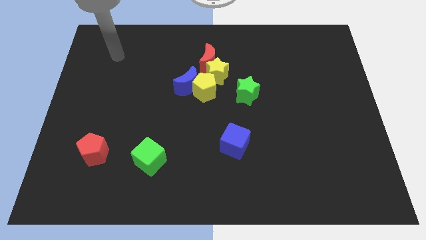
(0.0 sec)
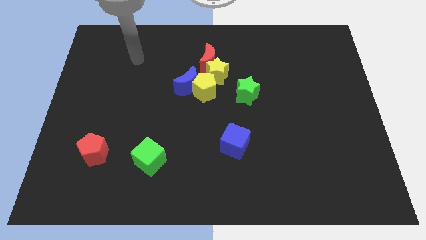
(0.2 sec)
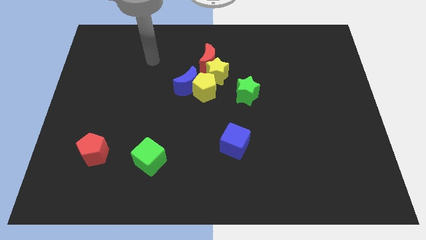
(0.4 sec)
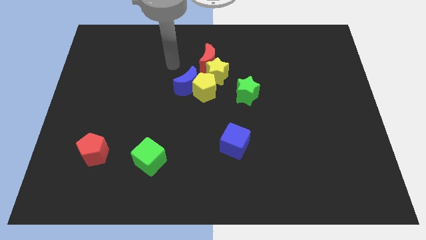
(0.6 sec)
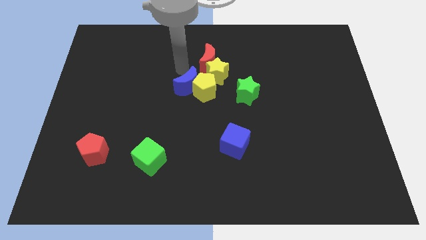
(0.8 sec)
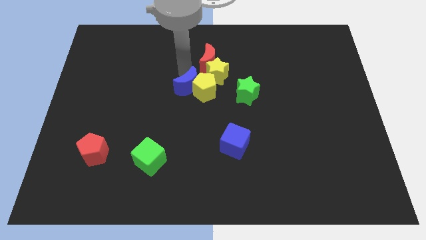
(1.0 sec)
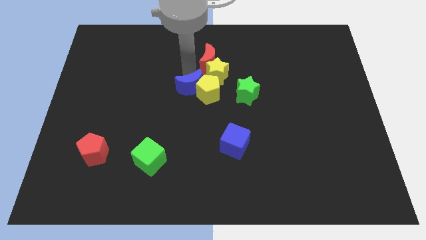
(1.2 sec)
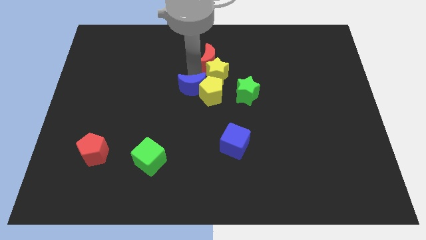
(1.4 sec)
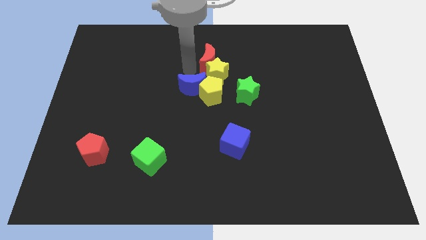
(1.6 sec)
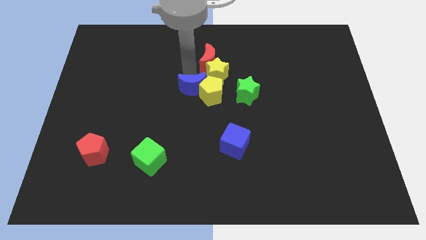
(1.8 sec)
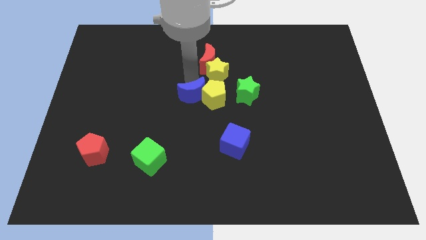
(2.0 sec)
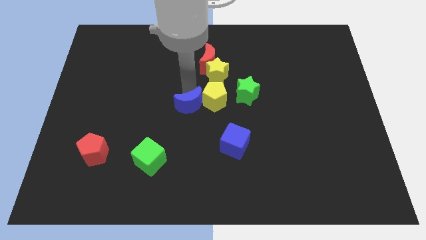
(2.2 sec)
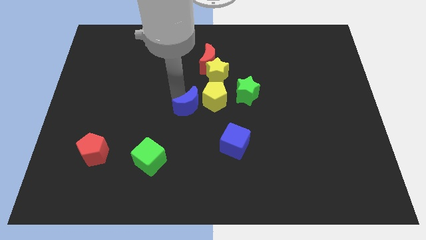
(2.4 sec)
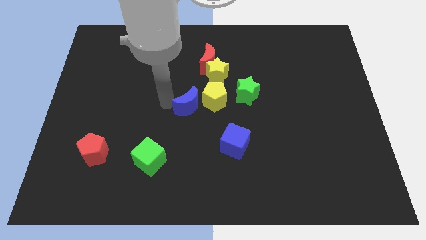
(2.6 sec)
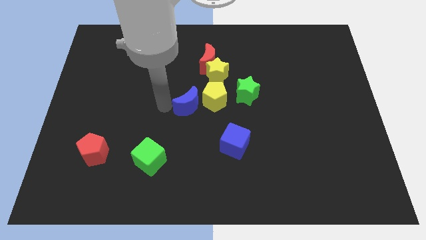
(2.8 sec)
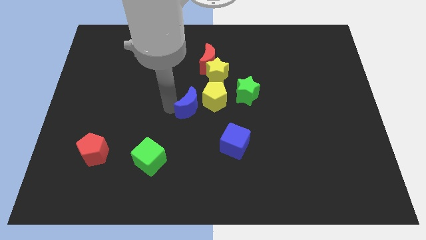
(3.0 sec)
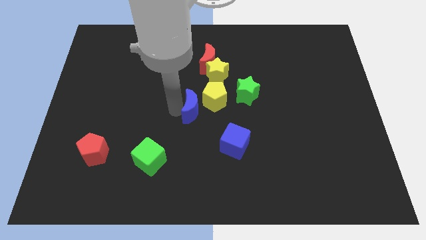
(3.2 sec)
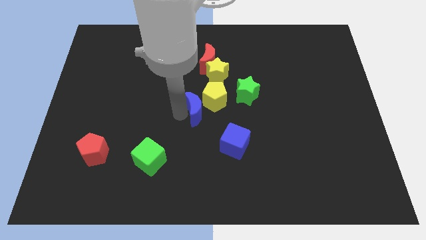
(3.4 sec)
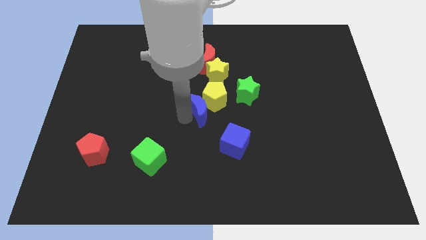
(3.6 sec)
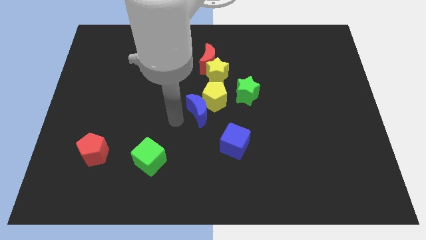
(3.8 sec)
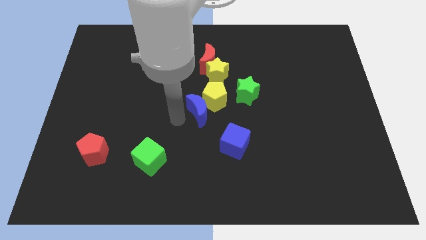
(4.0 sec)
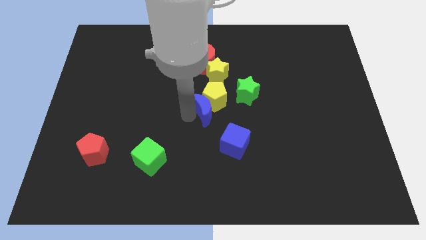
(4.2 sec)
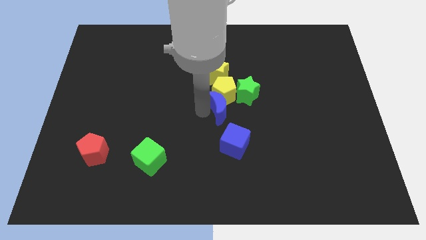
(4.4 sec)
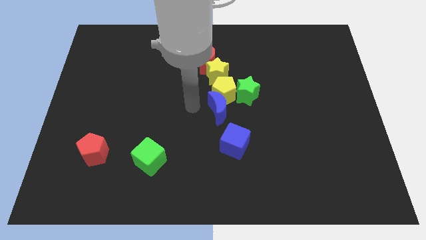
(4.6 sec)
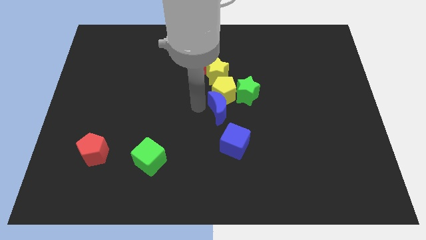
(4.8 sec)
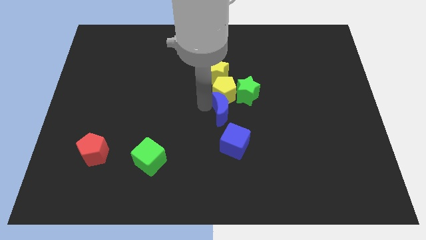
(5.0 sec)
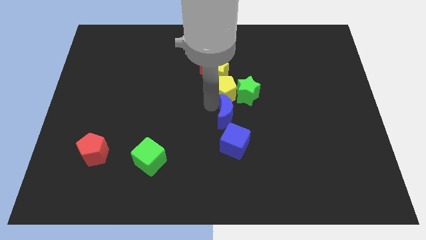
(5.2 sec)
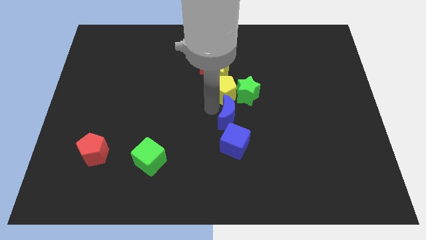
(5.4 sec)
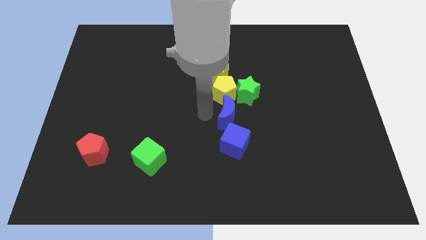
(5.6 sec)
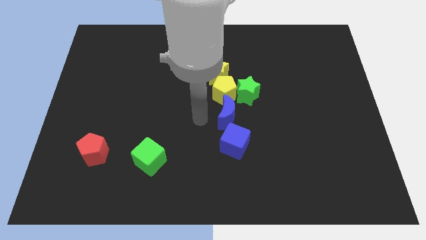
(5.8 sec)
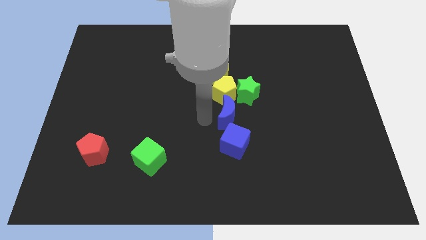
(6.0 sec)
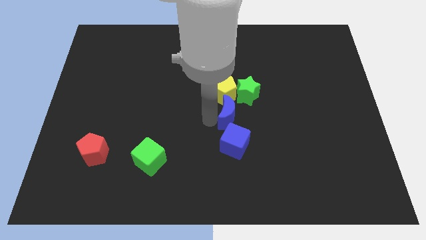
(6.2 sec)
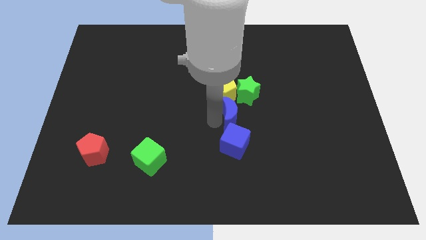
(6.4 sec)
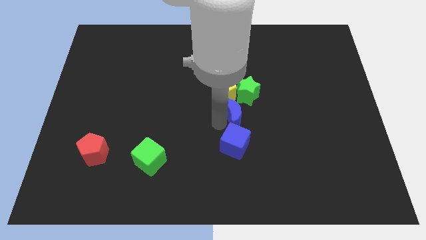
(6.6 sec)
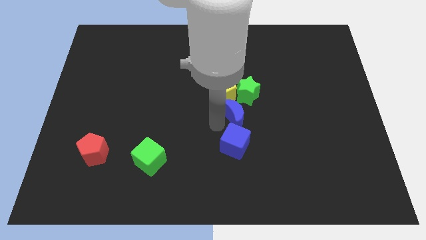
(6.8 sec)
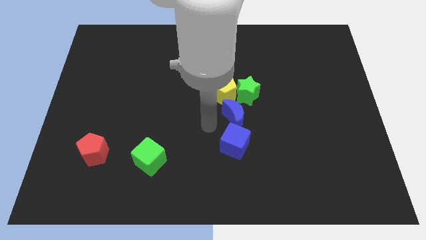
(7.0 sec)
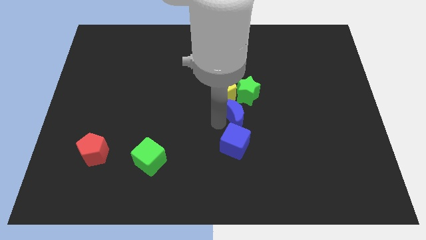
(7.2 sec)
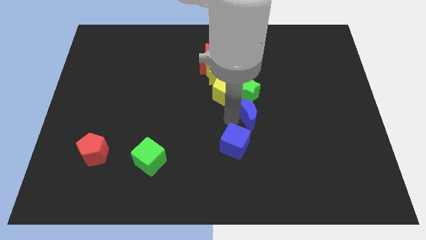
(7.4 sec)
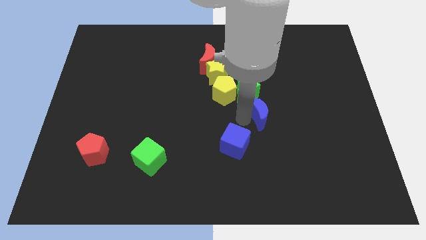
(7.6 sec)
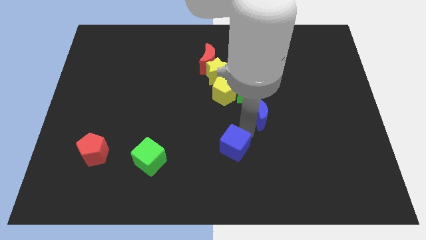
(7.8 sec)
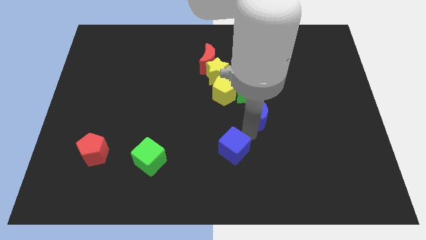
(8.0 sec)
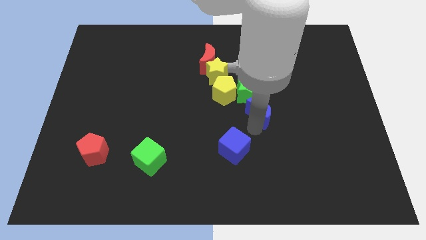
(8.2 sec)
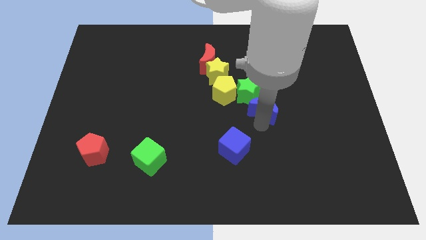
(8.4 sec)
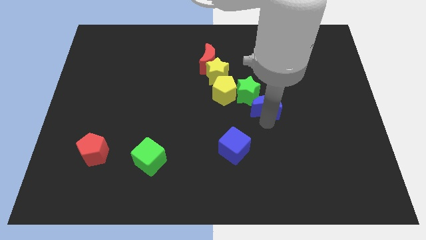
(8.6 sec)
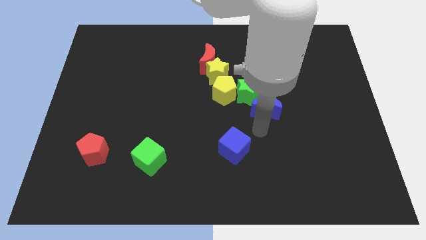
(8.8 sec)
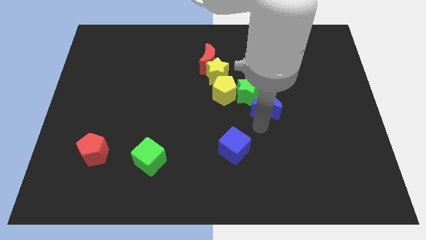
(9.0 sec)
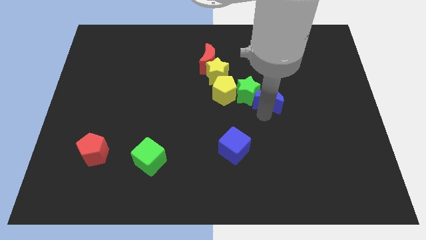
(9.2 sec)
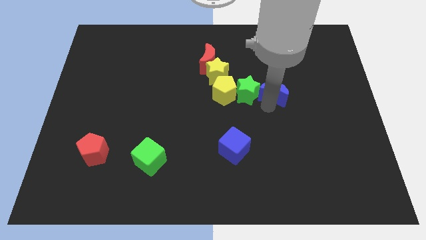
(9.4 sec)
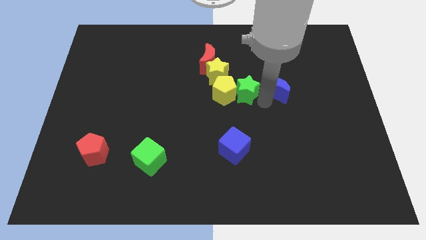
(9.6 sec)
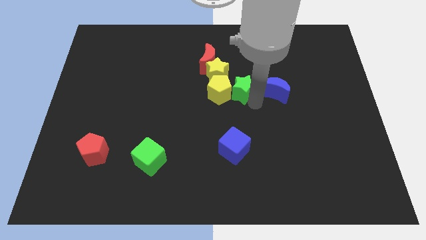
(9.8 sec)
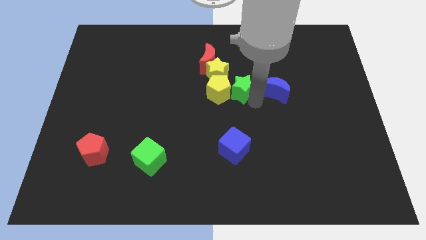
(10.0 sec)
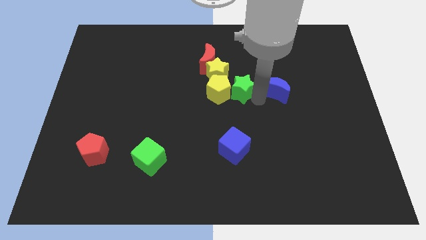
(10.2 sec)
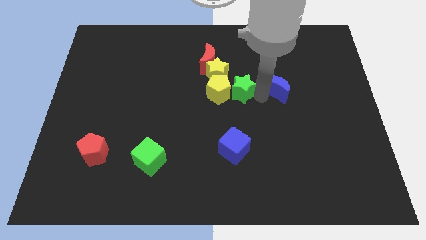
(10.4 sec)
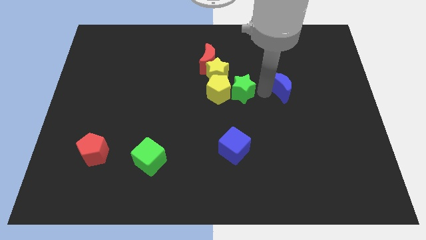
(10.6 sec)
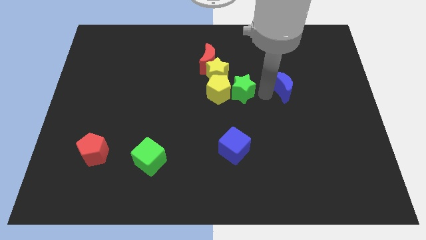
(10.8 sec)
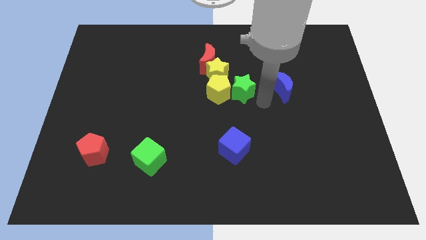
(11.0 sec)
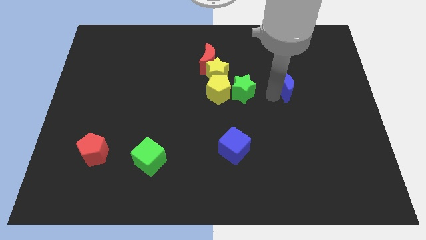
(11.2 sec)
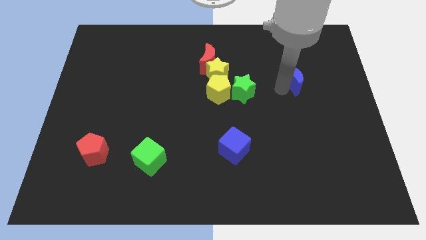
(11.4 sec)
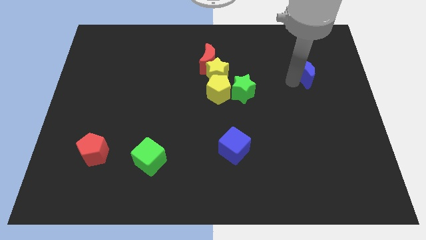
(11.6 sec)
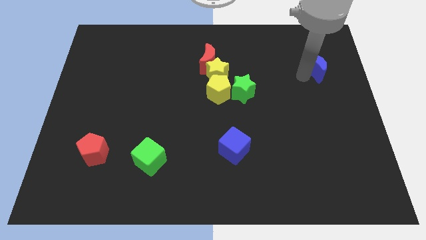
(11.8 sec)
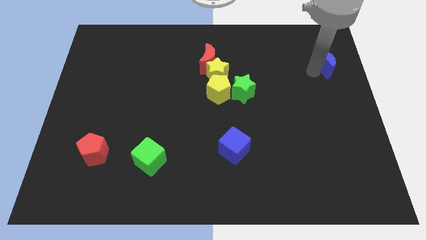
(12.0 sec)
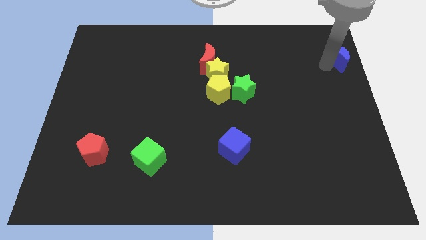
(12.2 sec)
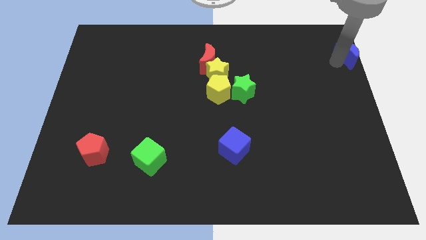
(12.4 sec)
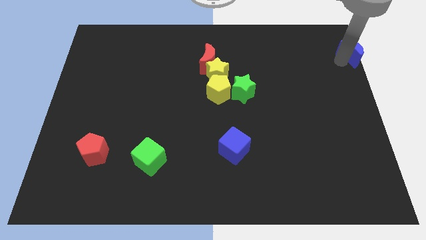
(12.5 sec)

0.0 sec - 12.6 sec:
slide the blue moon to the top right corner

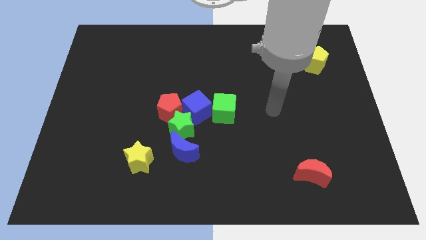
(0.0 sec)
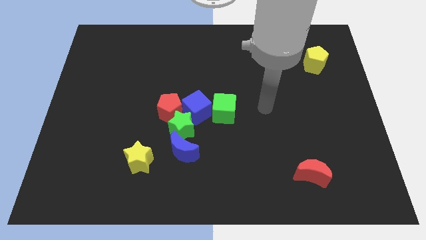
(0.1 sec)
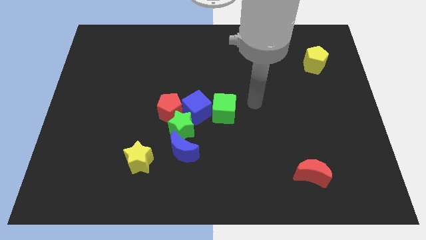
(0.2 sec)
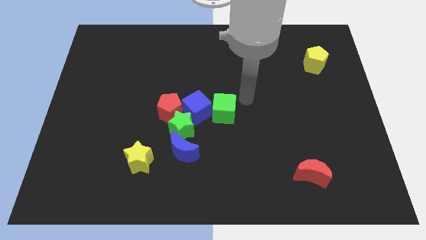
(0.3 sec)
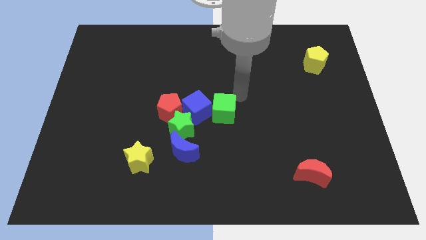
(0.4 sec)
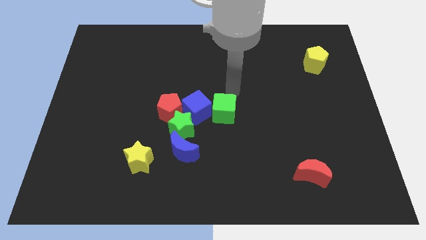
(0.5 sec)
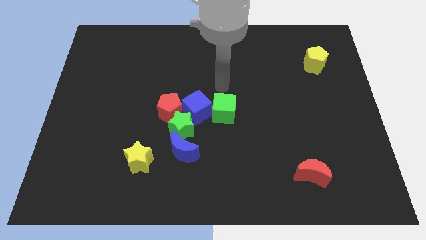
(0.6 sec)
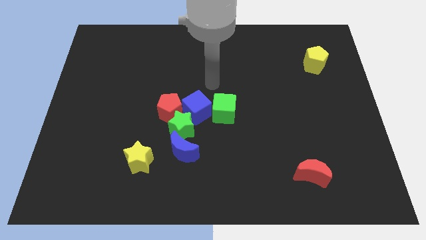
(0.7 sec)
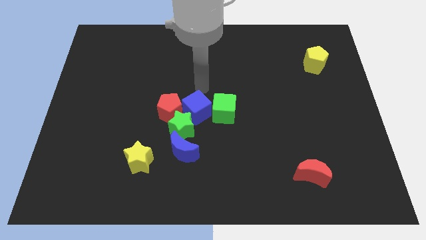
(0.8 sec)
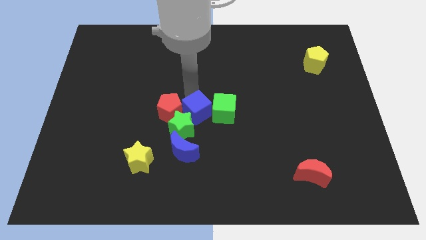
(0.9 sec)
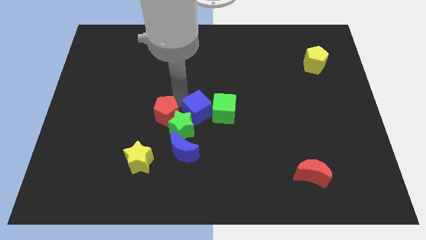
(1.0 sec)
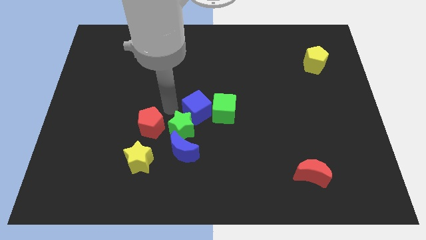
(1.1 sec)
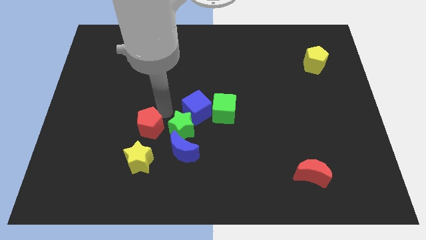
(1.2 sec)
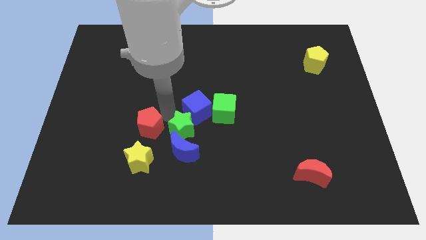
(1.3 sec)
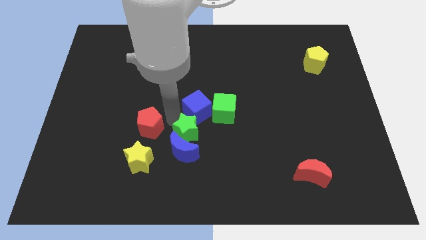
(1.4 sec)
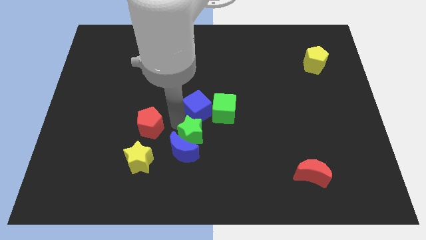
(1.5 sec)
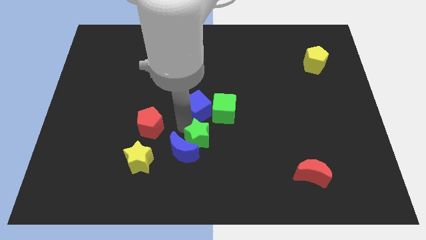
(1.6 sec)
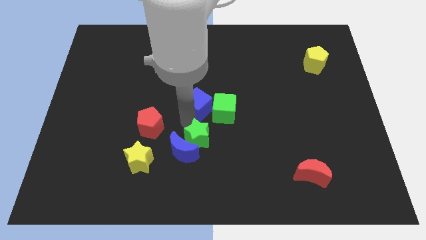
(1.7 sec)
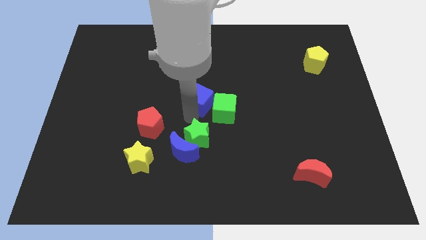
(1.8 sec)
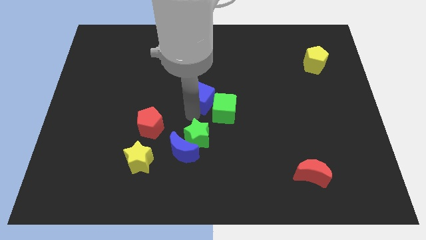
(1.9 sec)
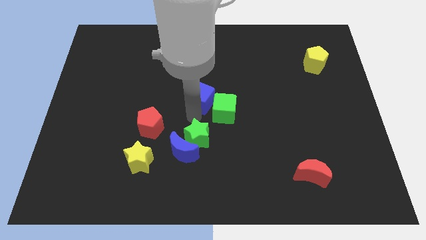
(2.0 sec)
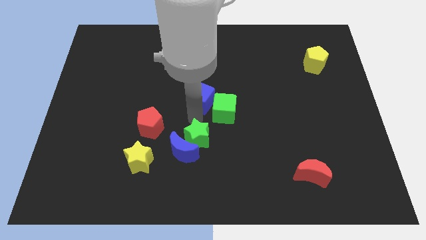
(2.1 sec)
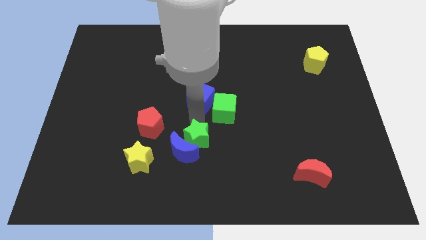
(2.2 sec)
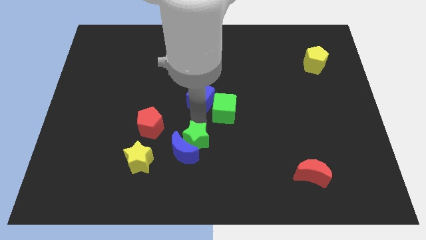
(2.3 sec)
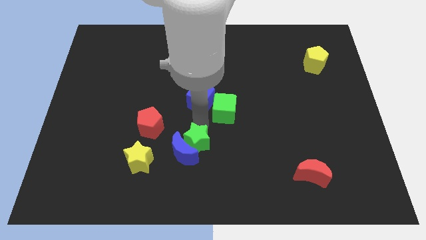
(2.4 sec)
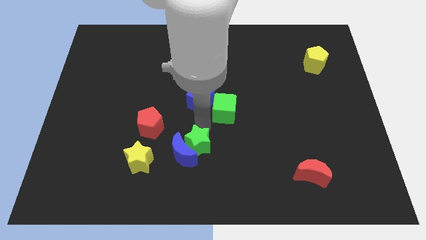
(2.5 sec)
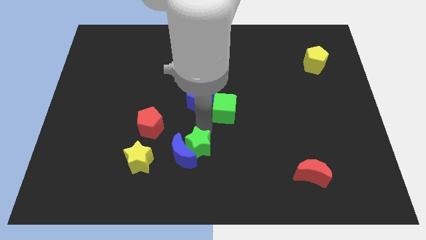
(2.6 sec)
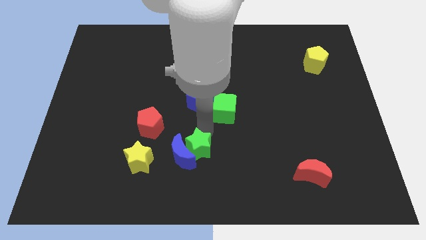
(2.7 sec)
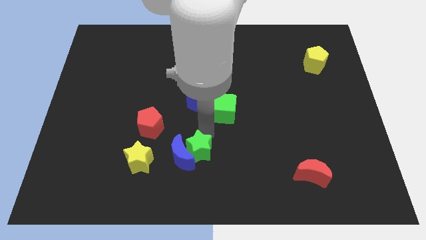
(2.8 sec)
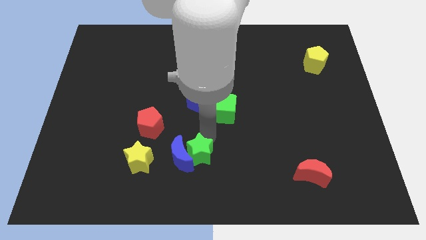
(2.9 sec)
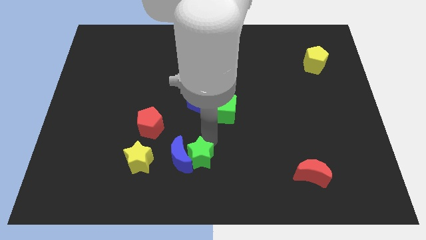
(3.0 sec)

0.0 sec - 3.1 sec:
put the green star to the bottom
